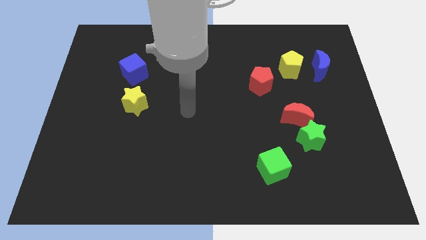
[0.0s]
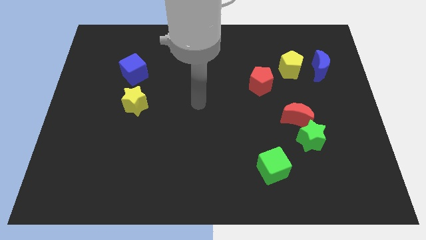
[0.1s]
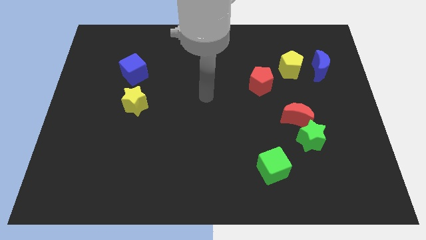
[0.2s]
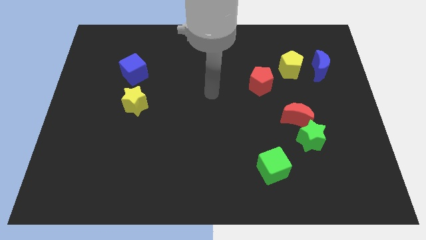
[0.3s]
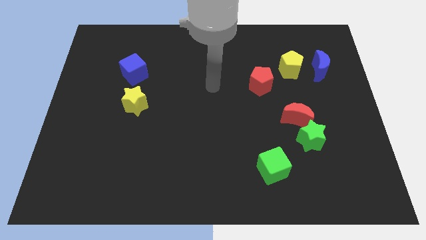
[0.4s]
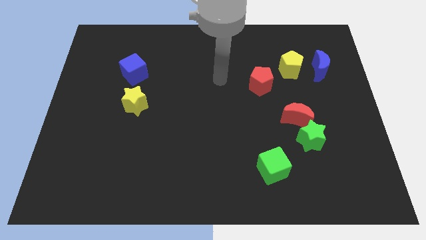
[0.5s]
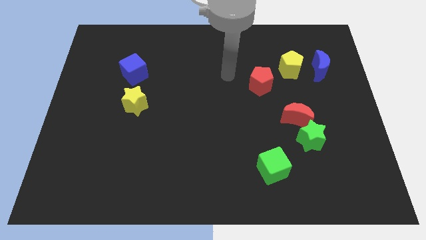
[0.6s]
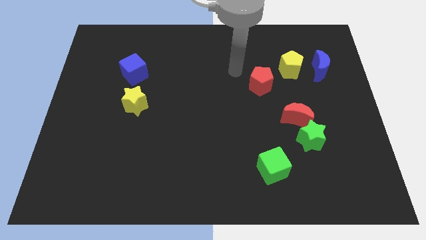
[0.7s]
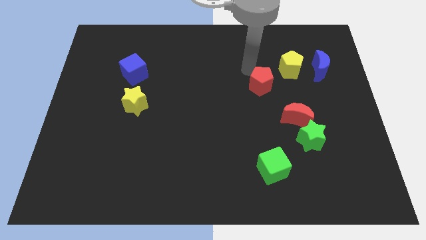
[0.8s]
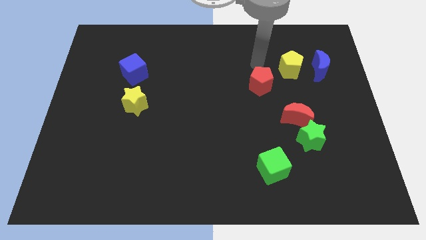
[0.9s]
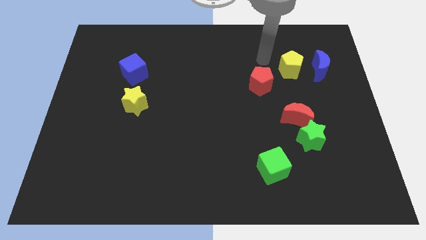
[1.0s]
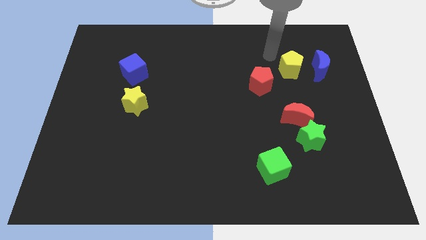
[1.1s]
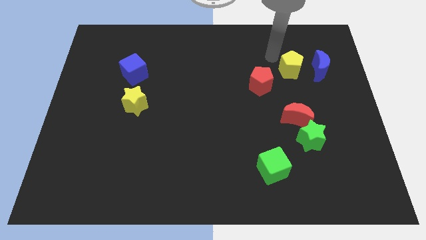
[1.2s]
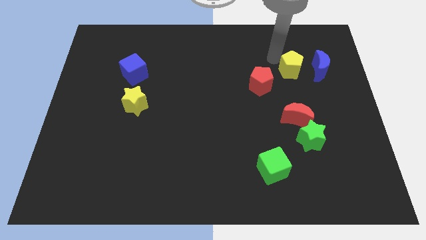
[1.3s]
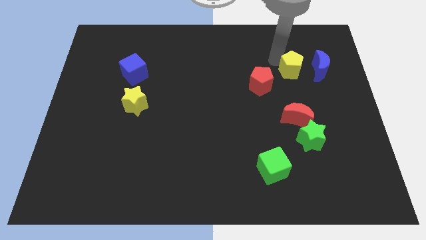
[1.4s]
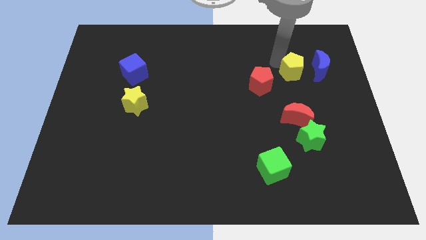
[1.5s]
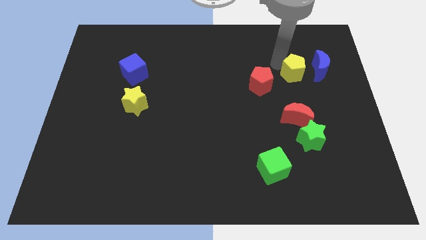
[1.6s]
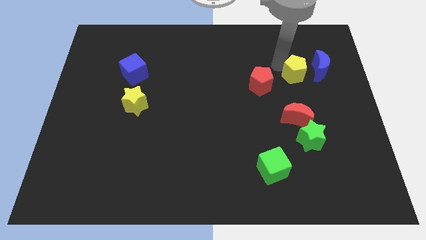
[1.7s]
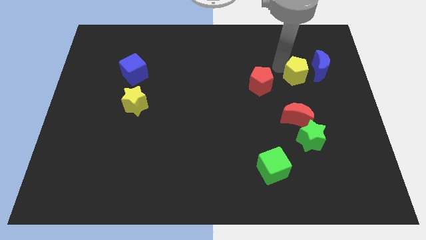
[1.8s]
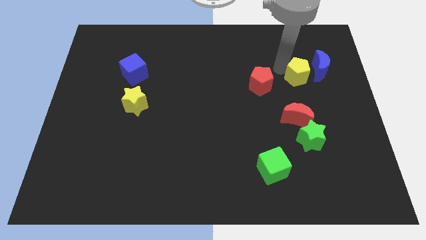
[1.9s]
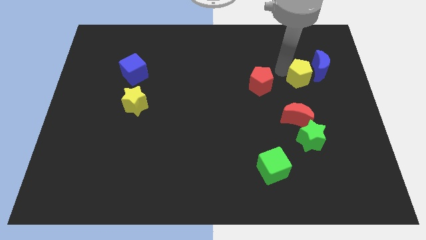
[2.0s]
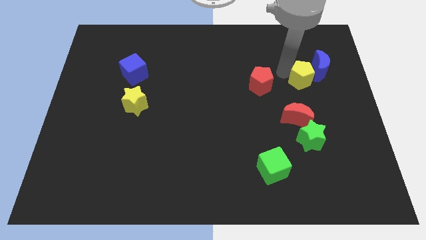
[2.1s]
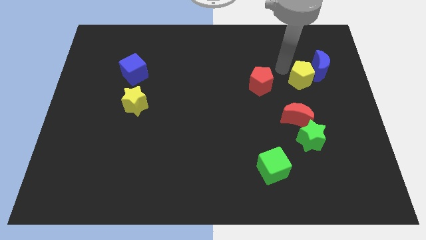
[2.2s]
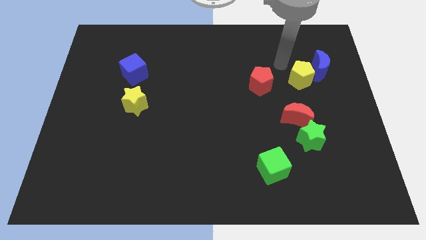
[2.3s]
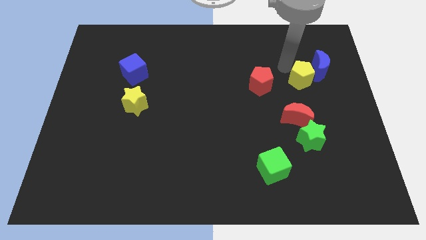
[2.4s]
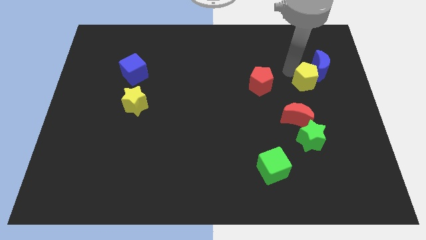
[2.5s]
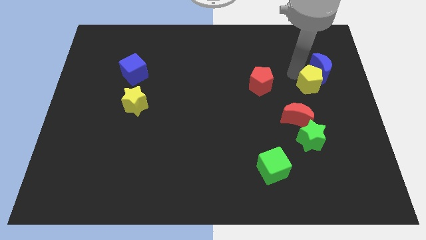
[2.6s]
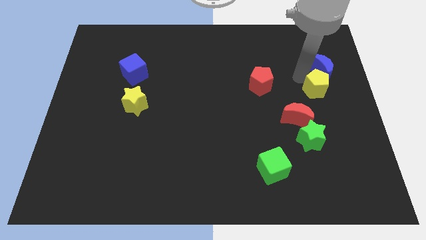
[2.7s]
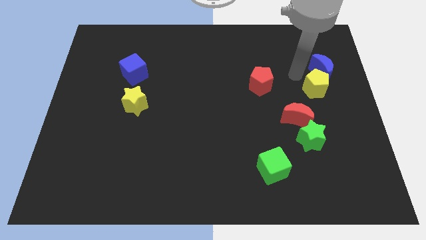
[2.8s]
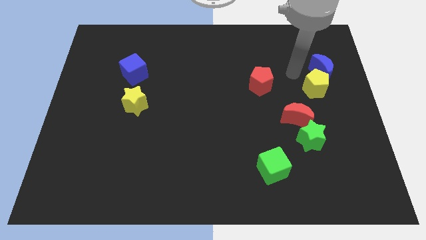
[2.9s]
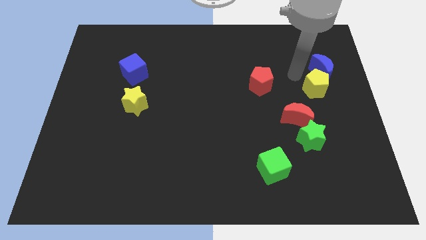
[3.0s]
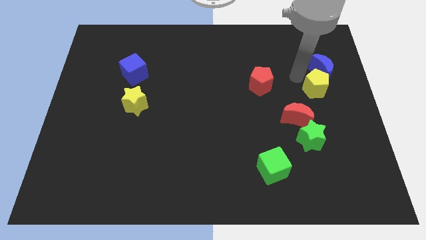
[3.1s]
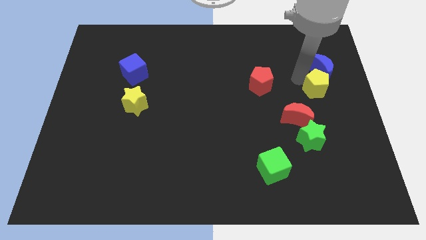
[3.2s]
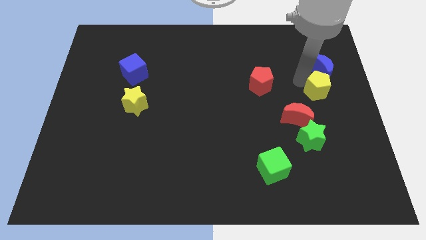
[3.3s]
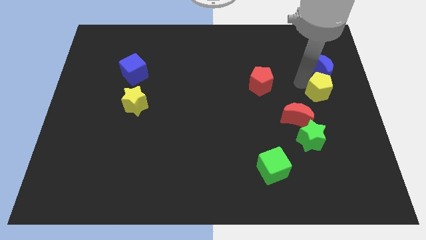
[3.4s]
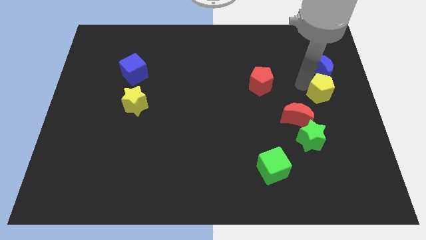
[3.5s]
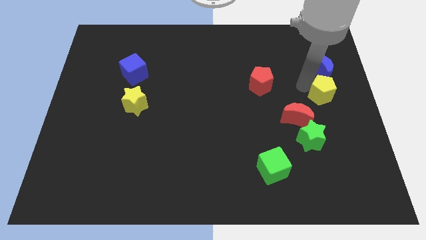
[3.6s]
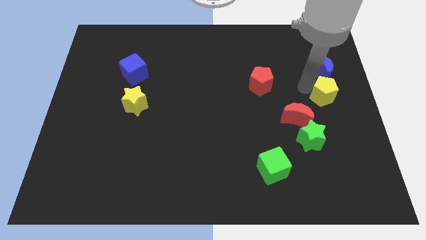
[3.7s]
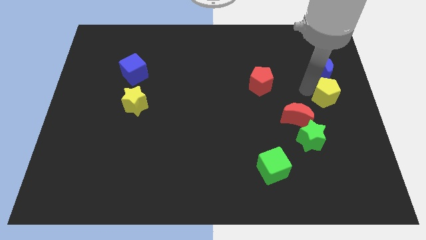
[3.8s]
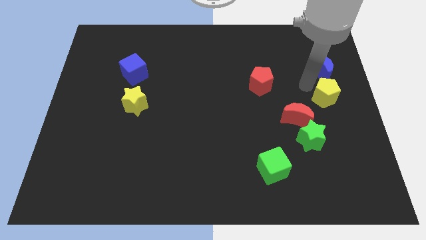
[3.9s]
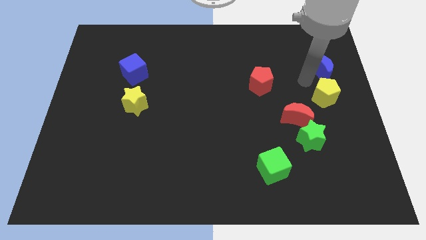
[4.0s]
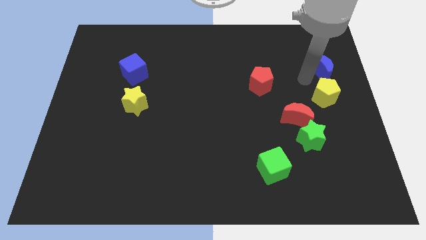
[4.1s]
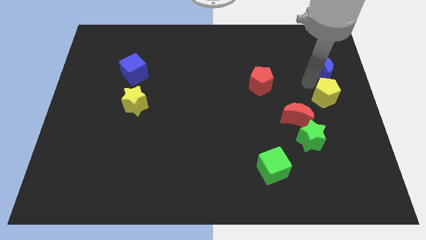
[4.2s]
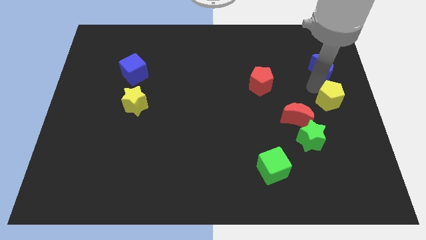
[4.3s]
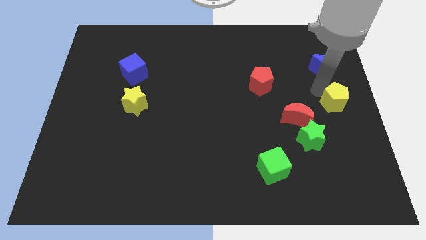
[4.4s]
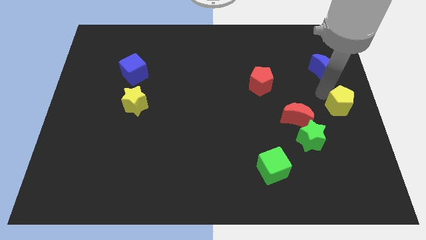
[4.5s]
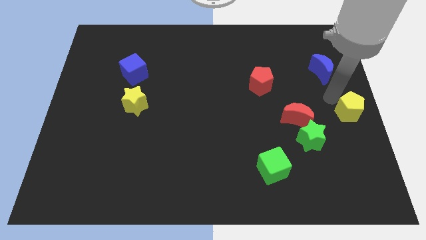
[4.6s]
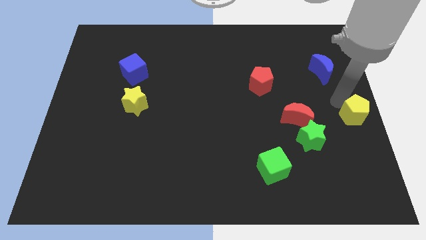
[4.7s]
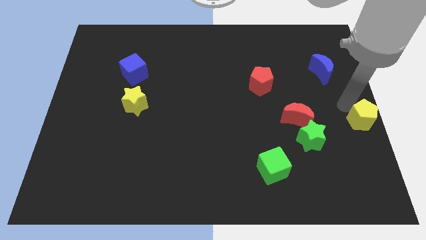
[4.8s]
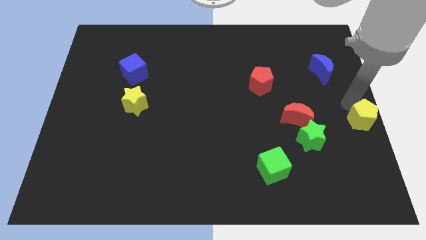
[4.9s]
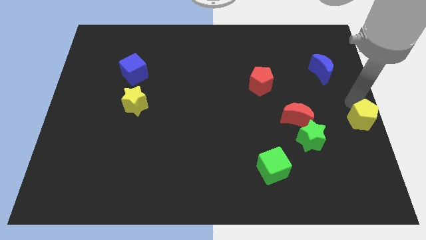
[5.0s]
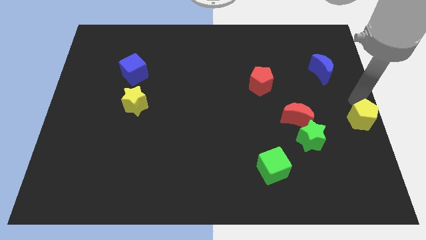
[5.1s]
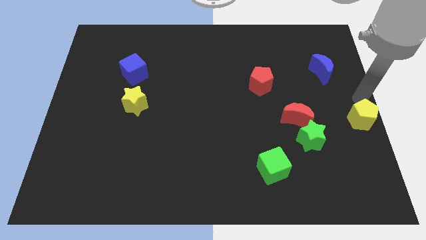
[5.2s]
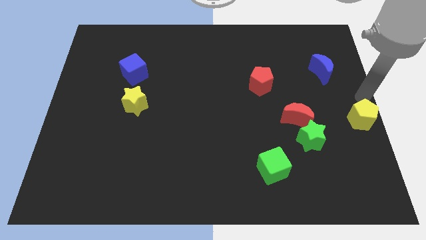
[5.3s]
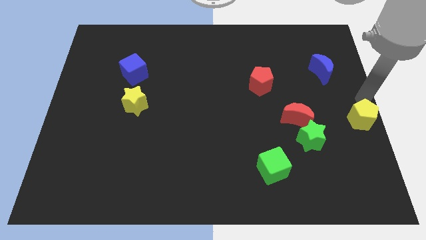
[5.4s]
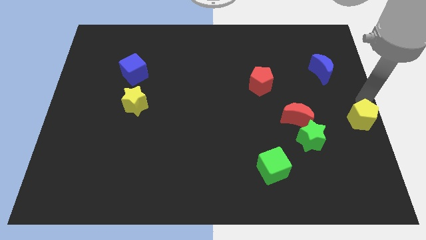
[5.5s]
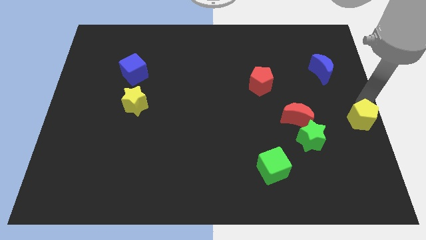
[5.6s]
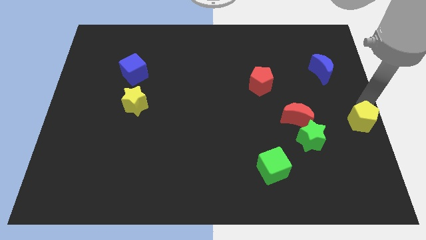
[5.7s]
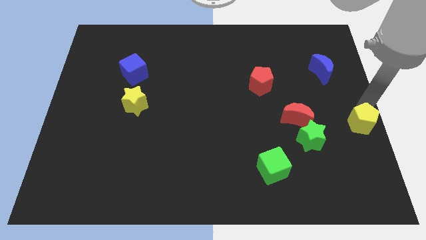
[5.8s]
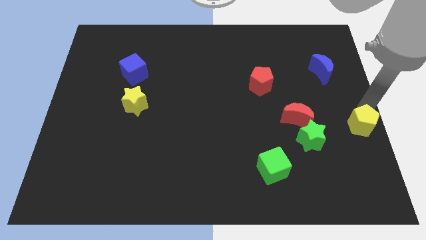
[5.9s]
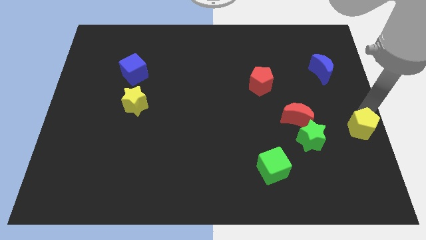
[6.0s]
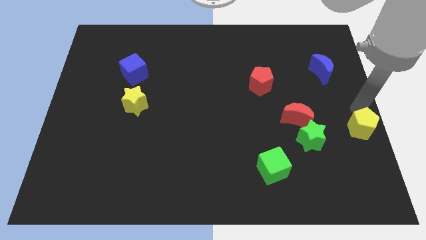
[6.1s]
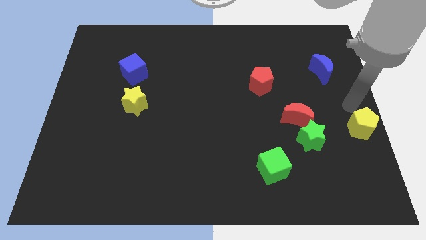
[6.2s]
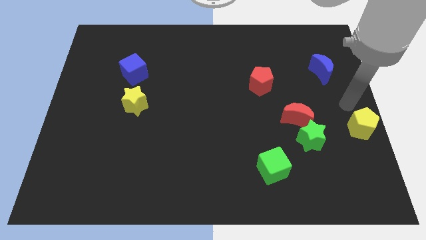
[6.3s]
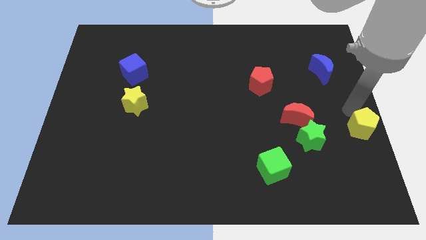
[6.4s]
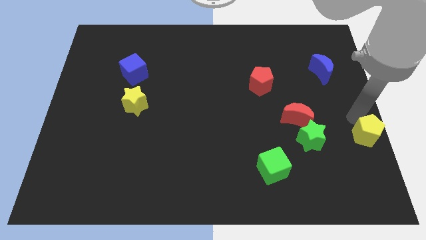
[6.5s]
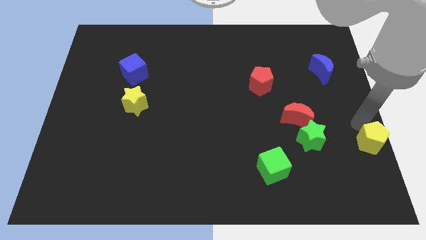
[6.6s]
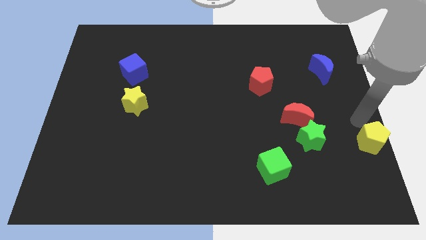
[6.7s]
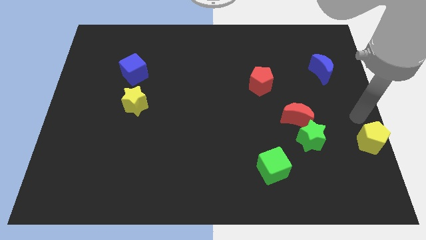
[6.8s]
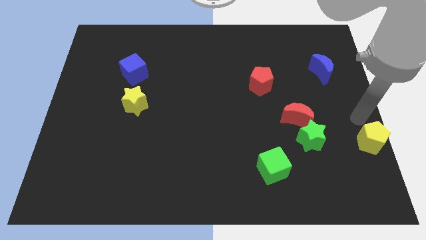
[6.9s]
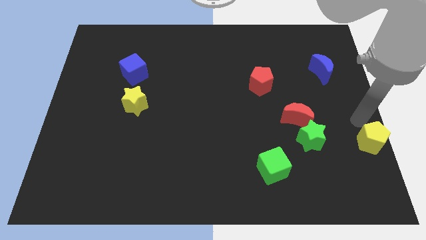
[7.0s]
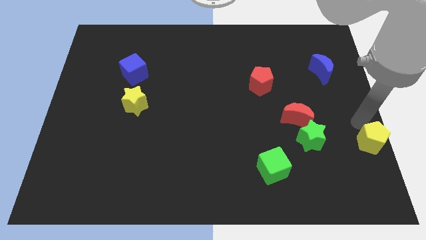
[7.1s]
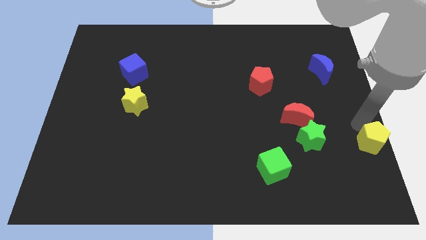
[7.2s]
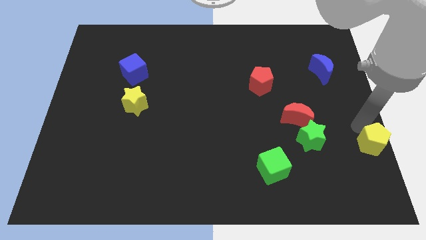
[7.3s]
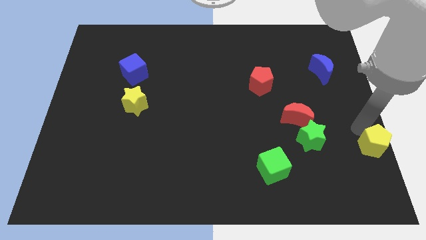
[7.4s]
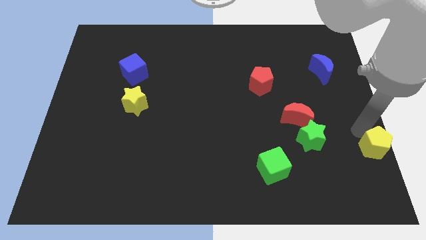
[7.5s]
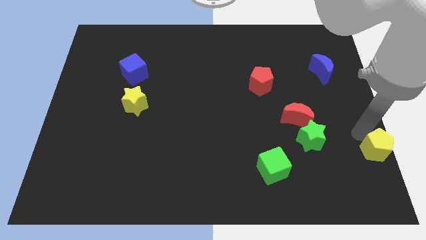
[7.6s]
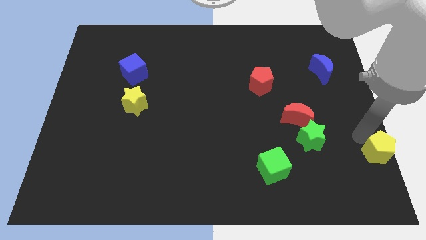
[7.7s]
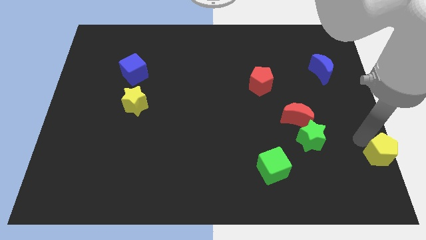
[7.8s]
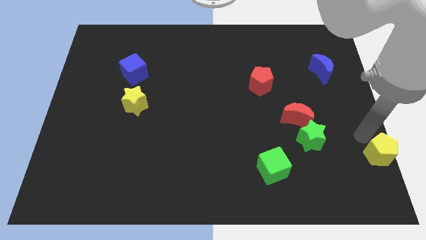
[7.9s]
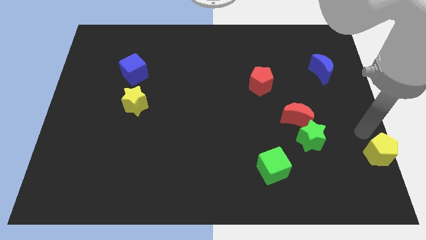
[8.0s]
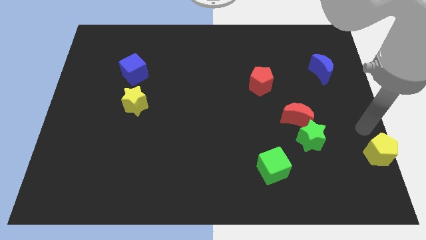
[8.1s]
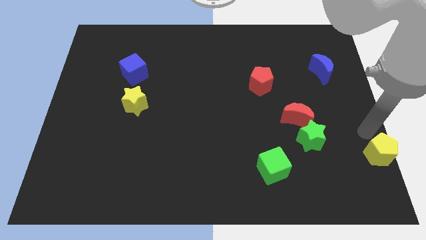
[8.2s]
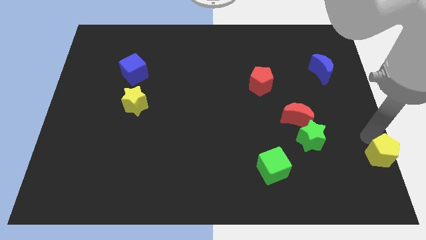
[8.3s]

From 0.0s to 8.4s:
push the yellow pentagon to the bottom right
